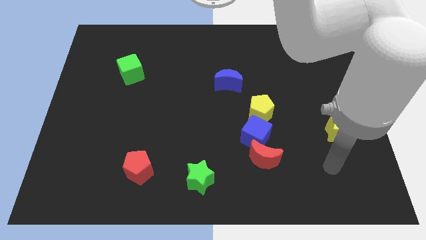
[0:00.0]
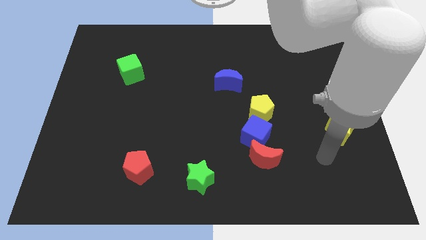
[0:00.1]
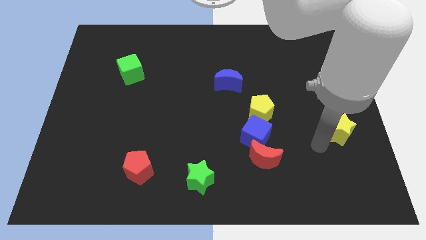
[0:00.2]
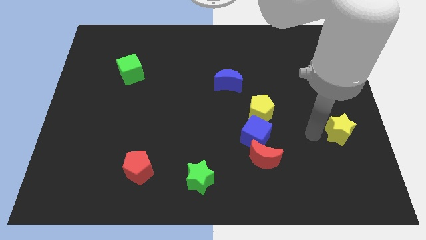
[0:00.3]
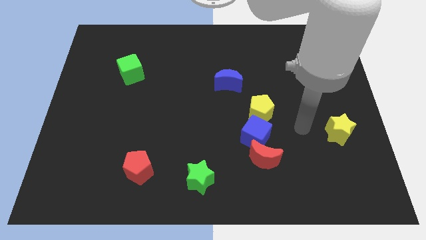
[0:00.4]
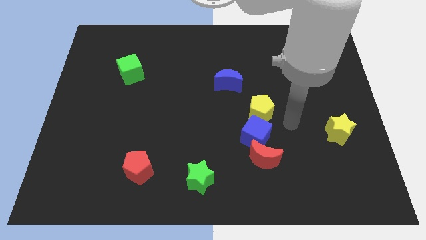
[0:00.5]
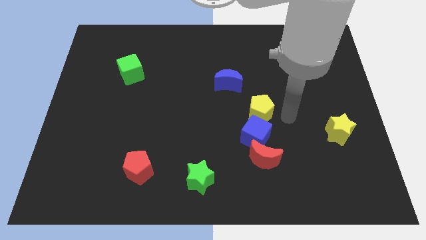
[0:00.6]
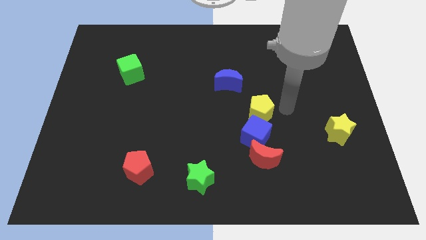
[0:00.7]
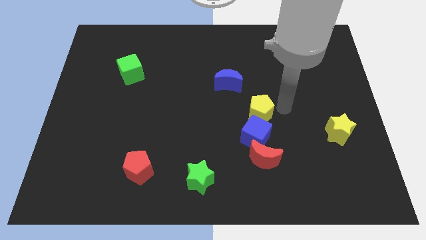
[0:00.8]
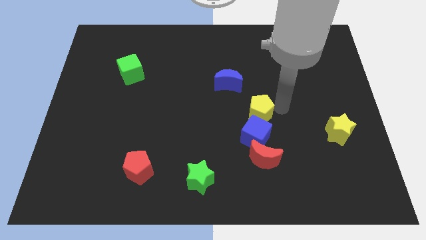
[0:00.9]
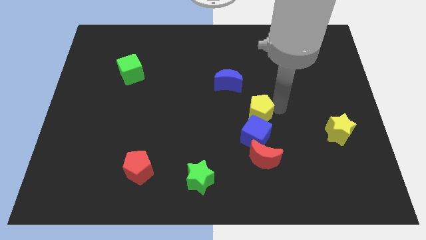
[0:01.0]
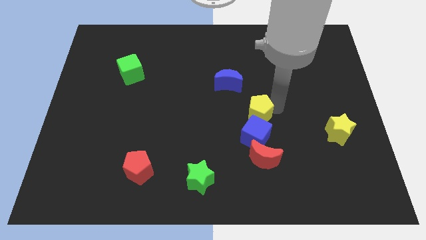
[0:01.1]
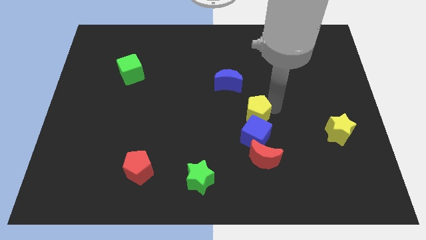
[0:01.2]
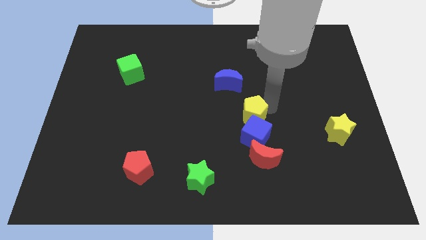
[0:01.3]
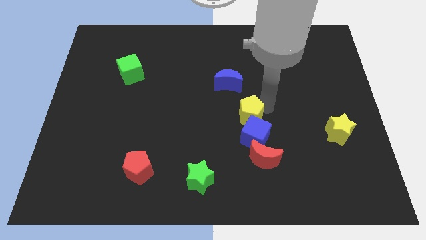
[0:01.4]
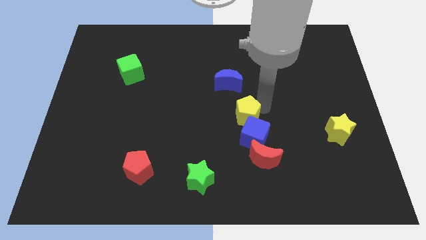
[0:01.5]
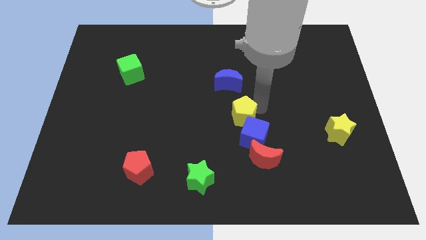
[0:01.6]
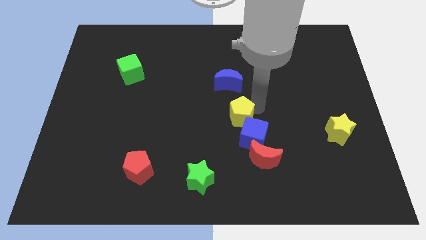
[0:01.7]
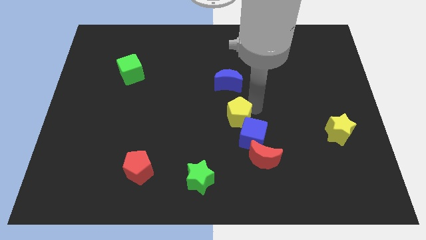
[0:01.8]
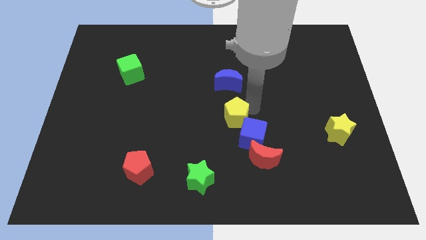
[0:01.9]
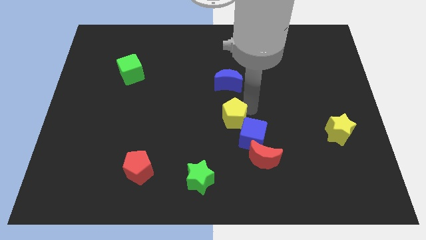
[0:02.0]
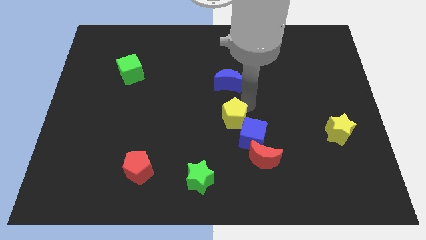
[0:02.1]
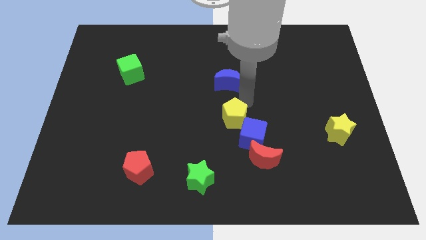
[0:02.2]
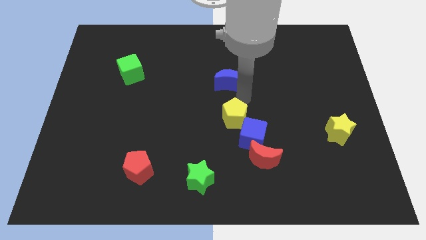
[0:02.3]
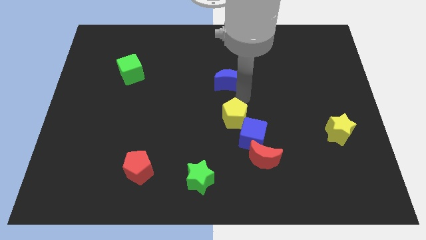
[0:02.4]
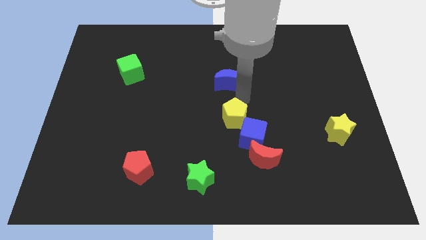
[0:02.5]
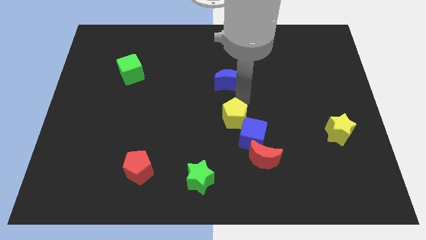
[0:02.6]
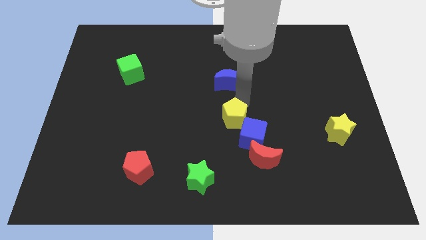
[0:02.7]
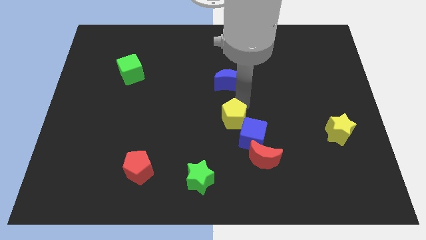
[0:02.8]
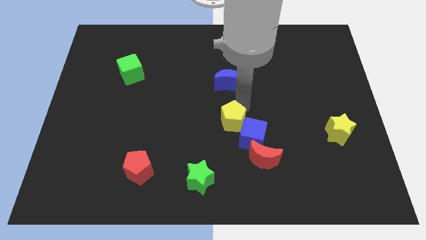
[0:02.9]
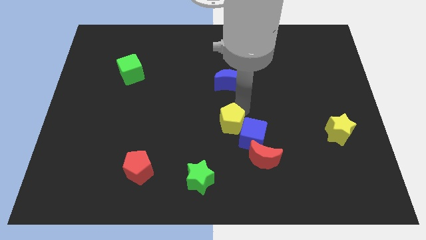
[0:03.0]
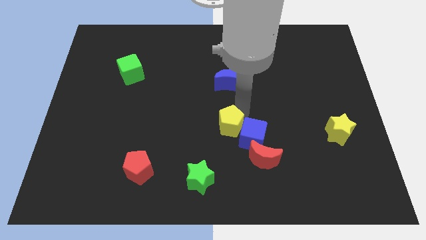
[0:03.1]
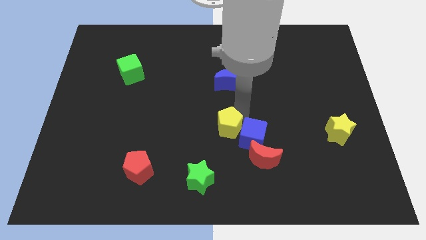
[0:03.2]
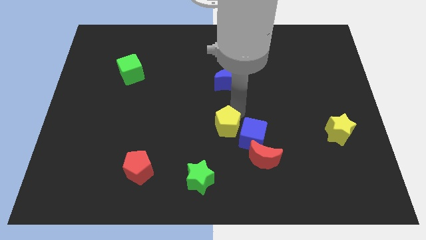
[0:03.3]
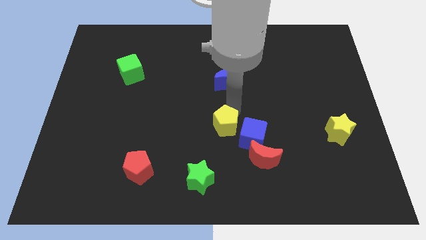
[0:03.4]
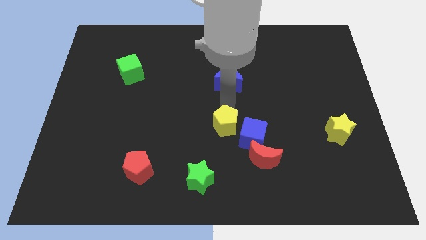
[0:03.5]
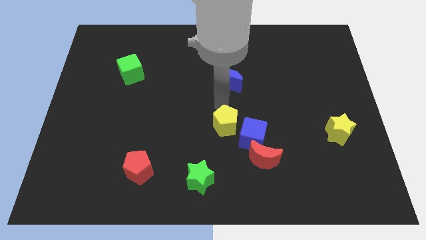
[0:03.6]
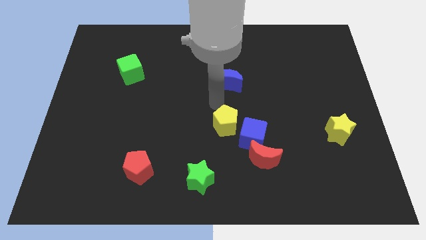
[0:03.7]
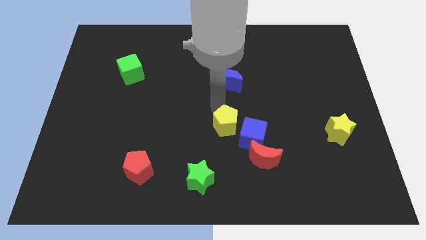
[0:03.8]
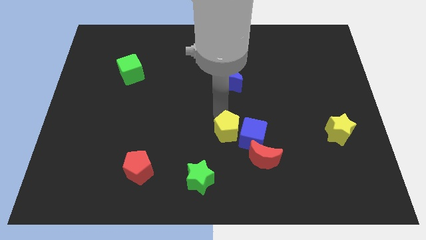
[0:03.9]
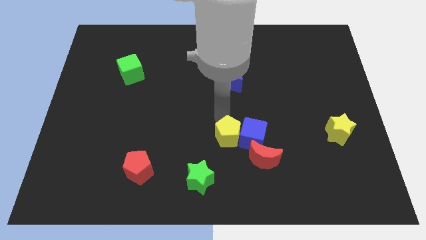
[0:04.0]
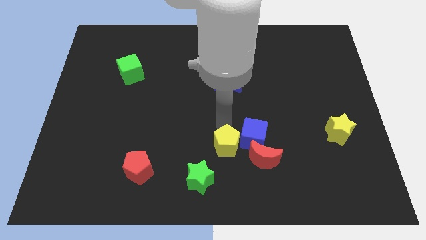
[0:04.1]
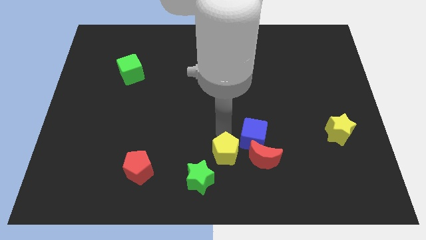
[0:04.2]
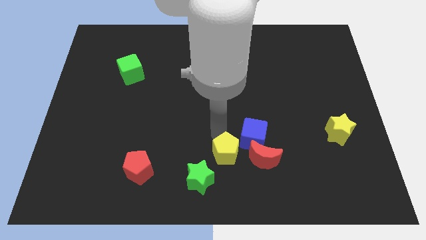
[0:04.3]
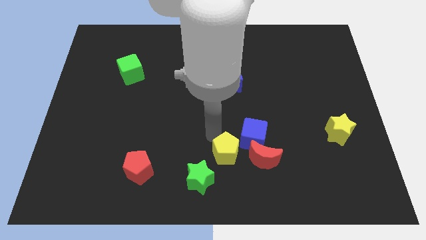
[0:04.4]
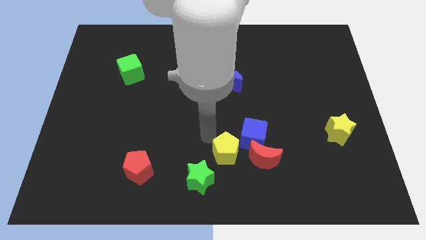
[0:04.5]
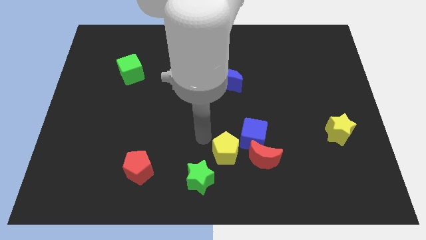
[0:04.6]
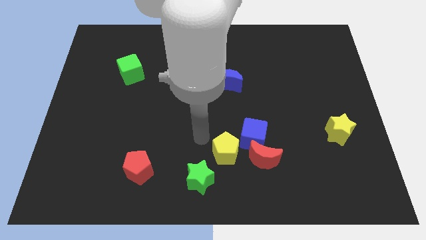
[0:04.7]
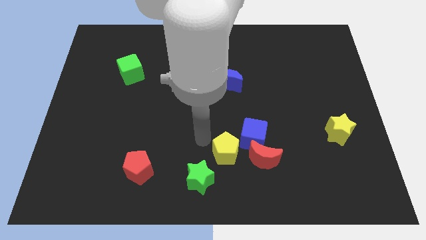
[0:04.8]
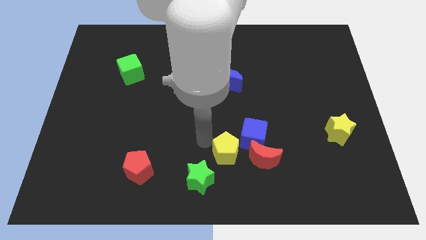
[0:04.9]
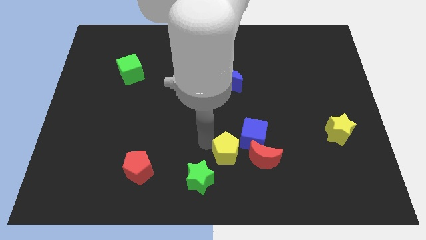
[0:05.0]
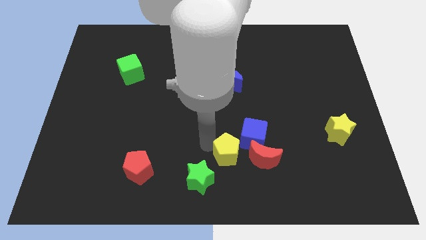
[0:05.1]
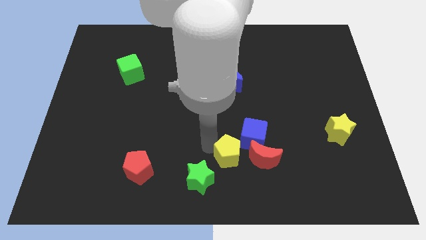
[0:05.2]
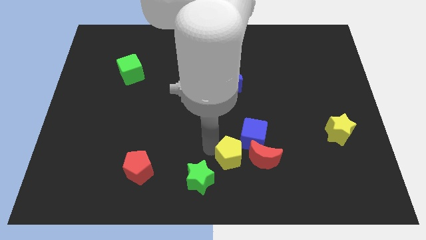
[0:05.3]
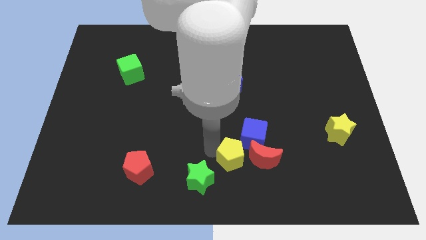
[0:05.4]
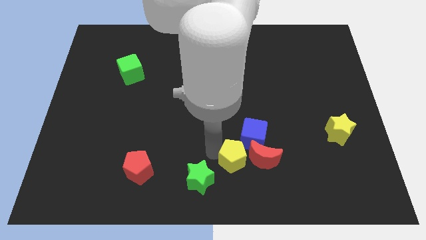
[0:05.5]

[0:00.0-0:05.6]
slide the yellow pentagon to the bottom left side of the red moon

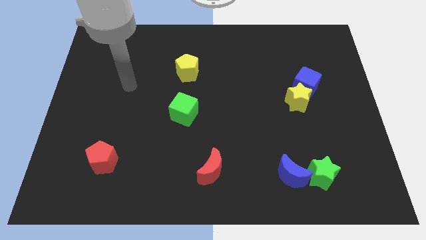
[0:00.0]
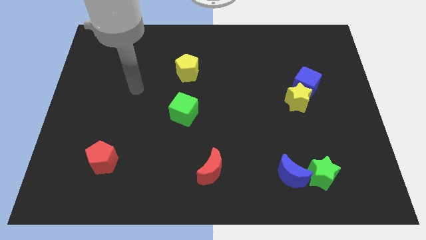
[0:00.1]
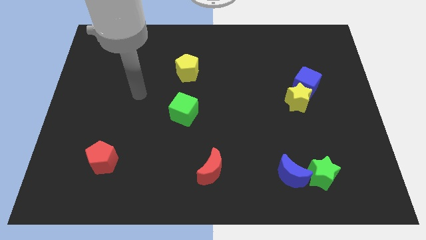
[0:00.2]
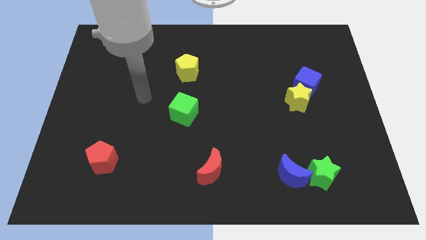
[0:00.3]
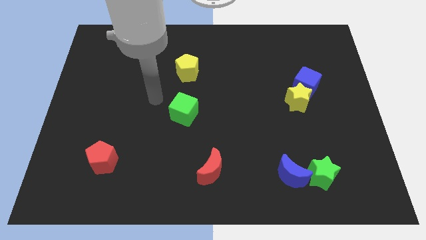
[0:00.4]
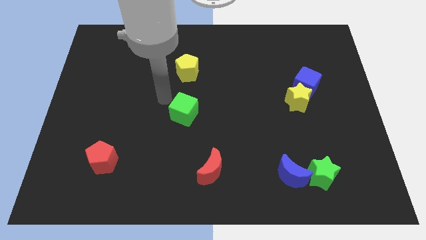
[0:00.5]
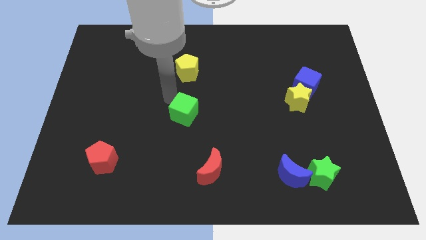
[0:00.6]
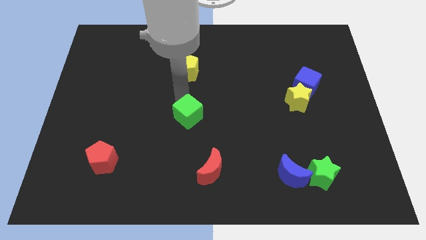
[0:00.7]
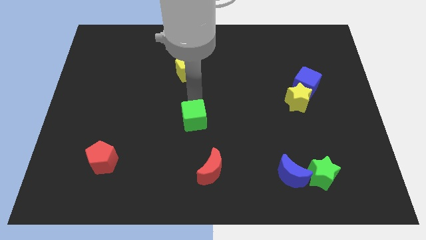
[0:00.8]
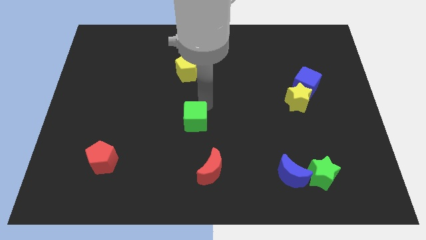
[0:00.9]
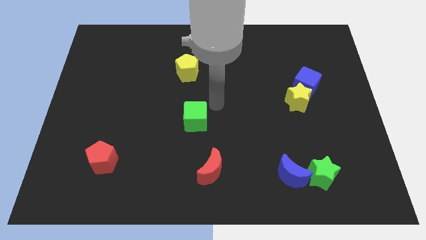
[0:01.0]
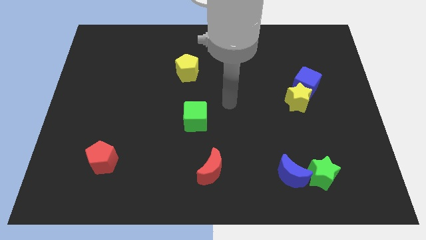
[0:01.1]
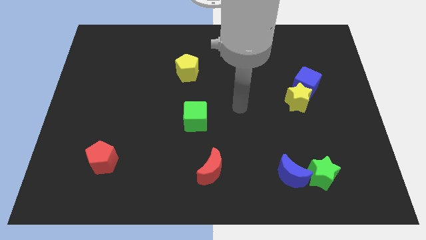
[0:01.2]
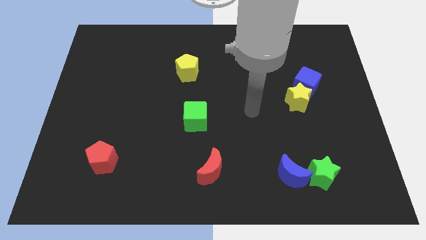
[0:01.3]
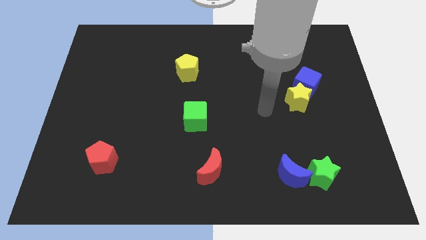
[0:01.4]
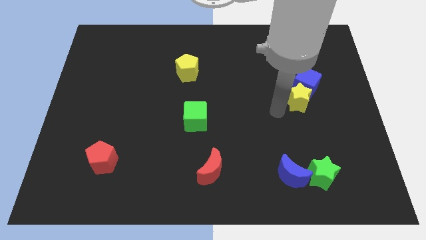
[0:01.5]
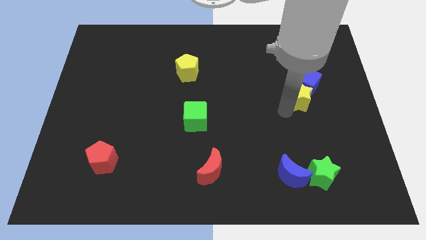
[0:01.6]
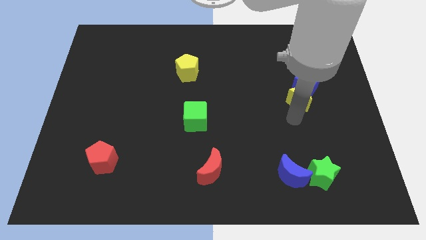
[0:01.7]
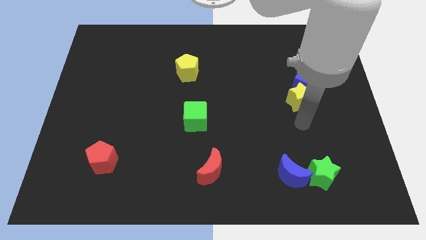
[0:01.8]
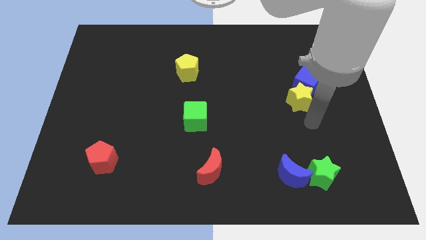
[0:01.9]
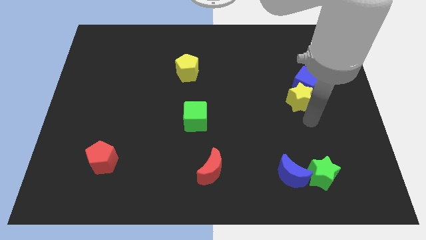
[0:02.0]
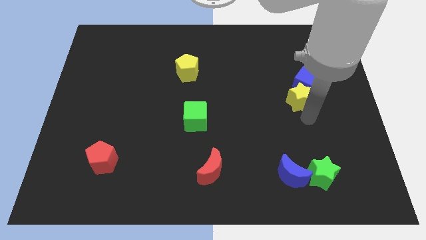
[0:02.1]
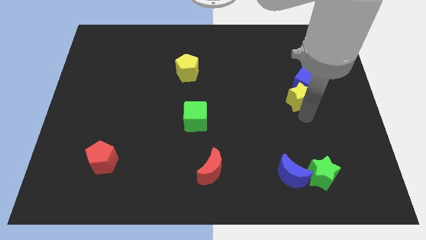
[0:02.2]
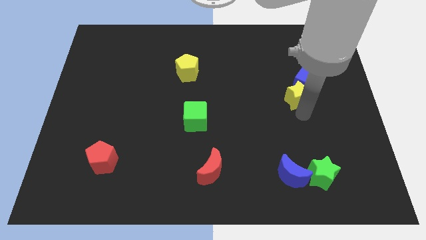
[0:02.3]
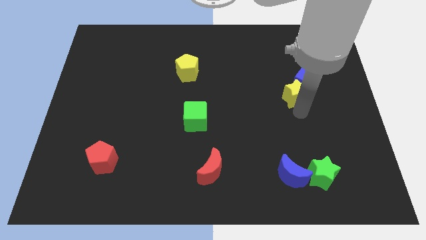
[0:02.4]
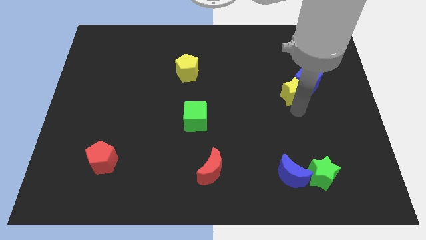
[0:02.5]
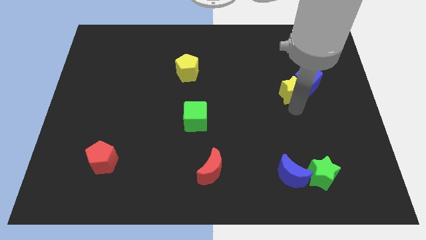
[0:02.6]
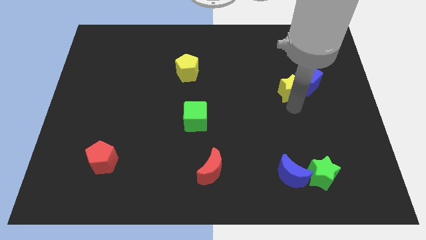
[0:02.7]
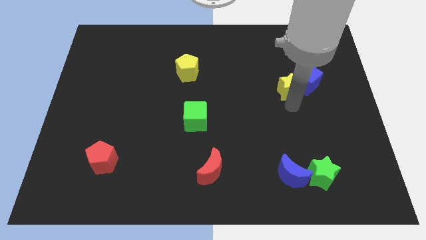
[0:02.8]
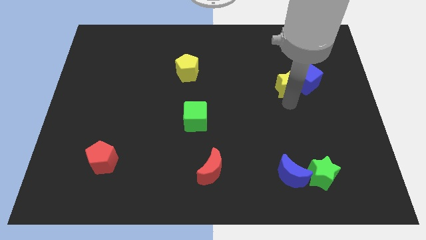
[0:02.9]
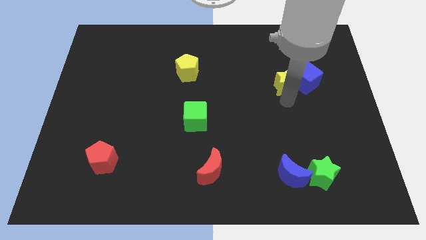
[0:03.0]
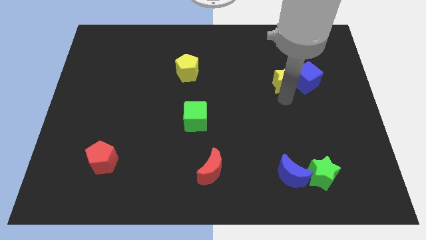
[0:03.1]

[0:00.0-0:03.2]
push the yellow star to the top left side of the blue cube
